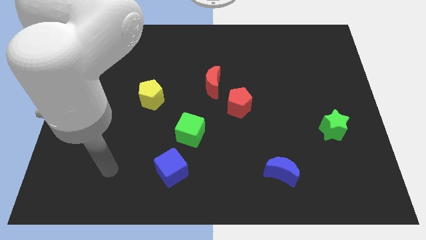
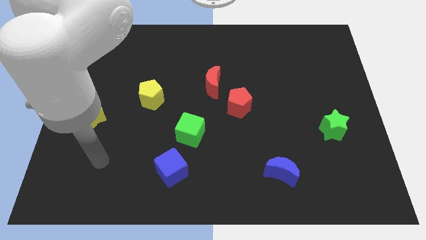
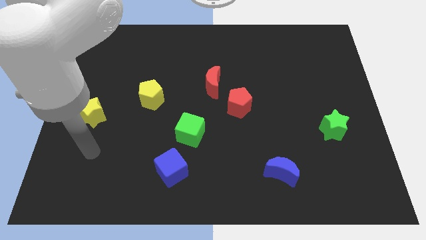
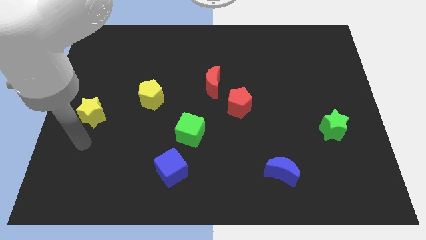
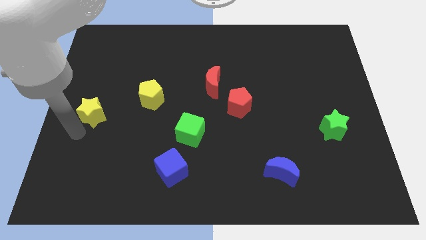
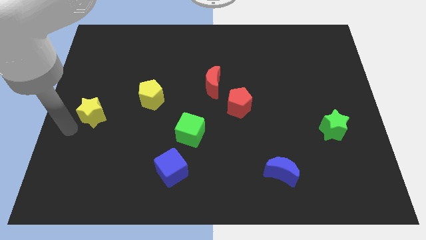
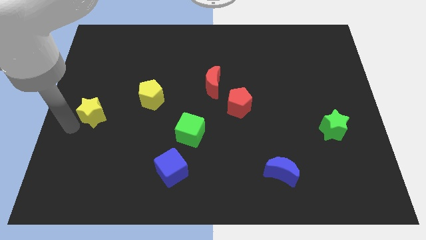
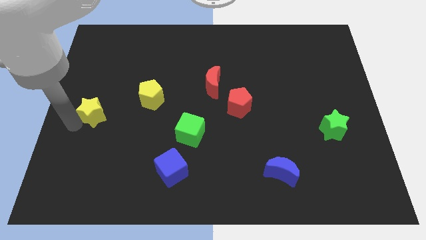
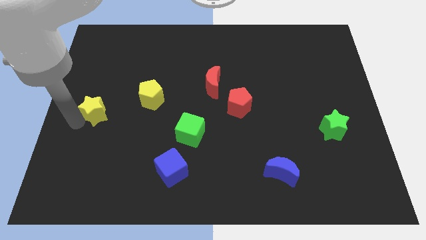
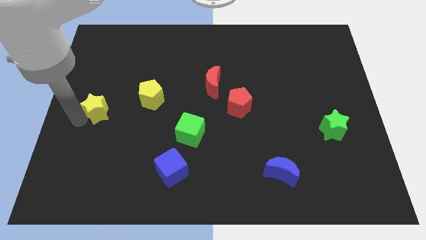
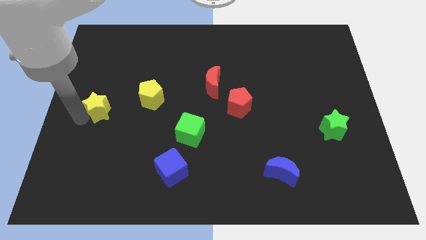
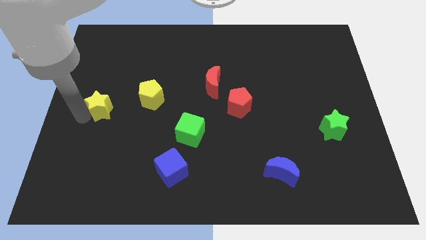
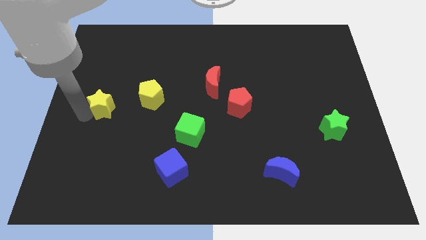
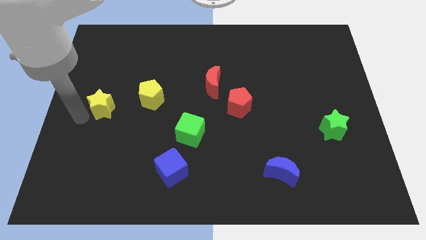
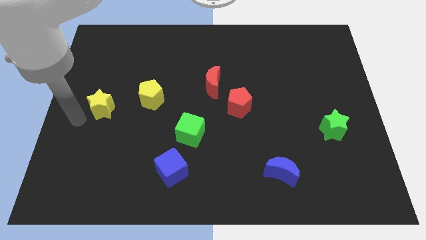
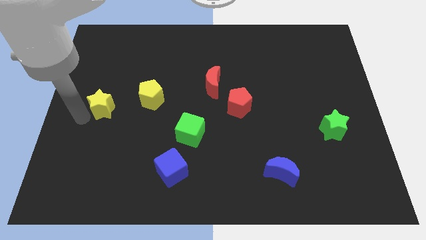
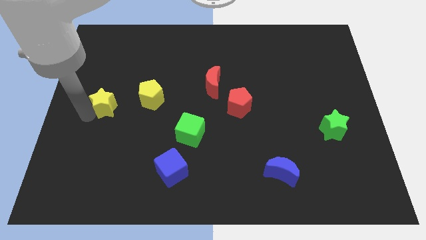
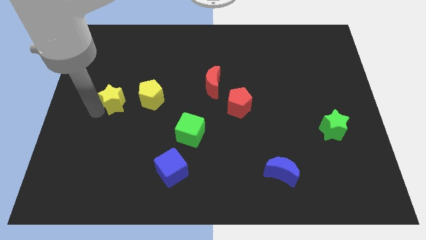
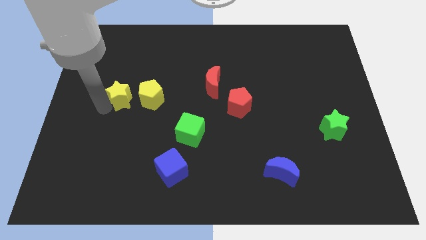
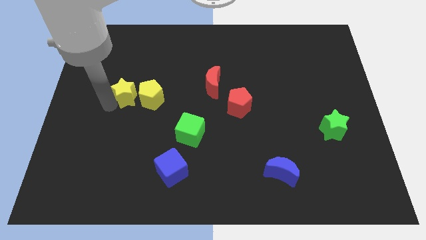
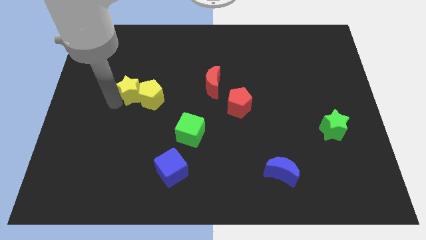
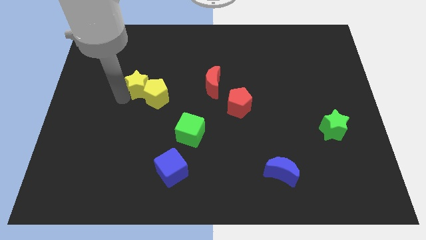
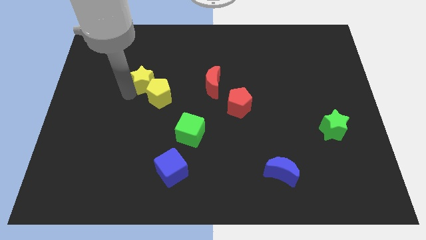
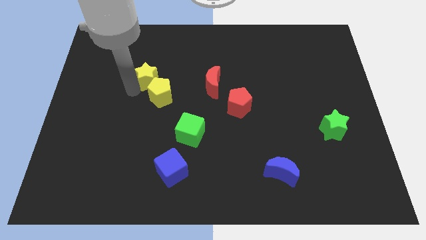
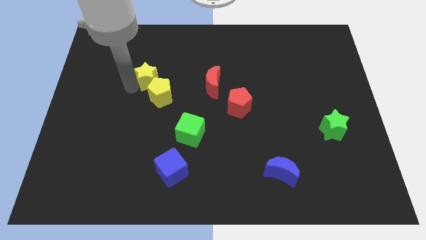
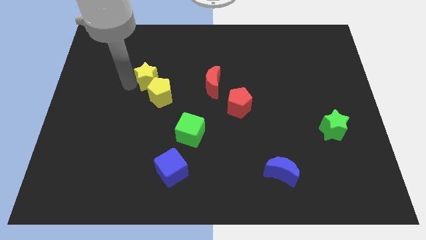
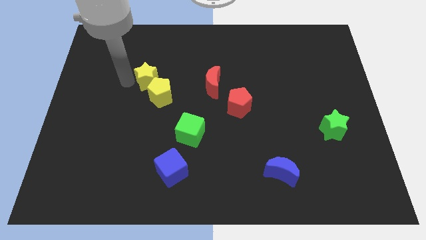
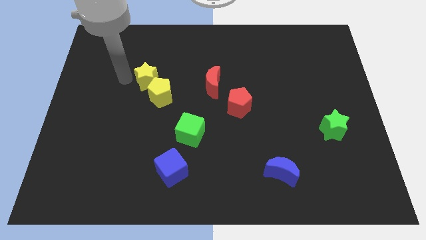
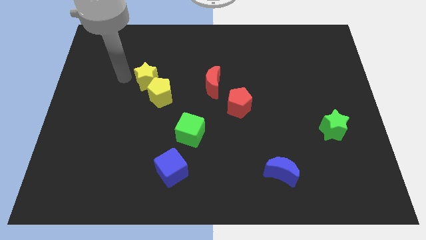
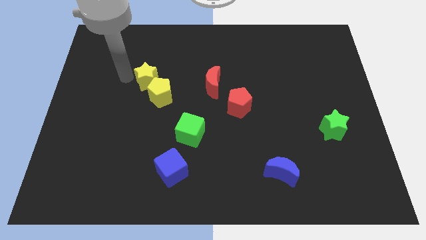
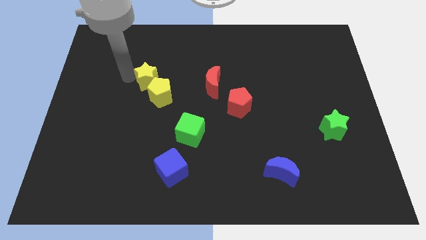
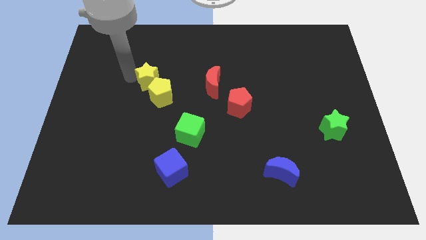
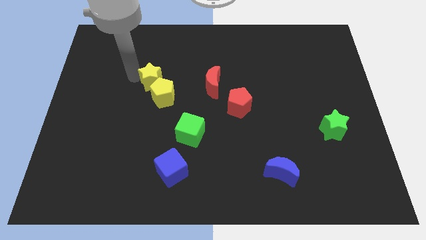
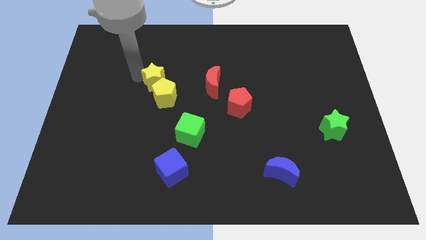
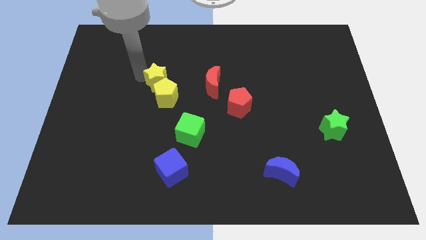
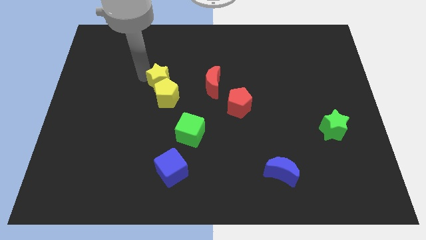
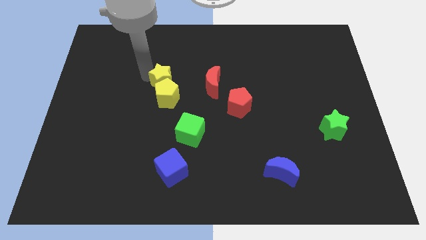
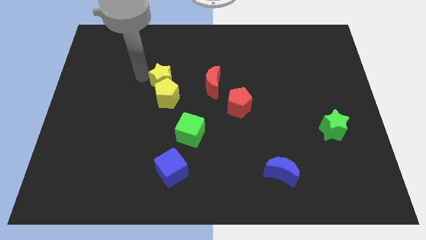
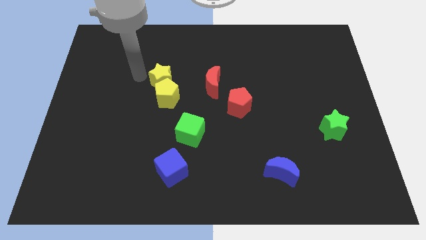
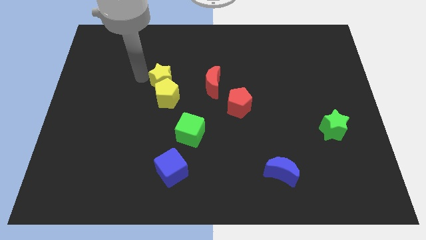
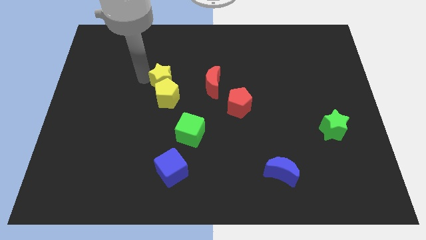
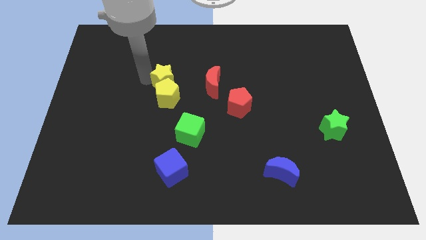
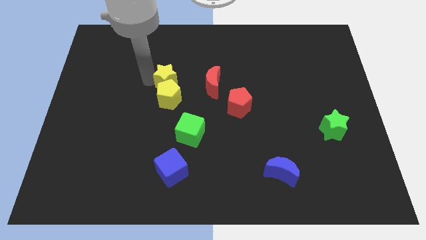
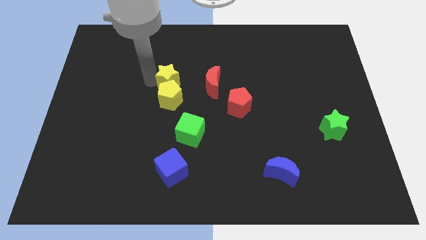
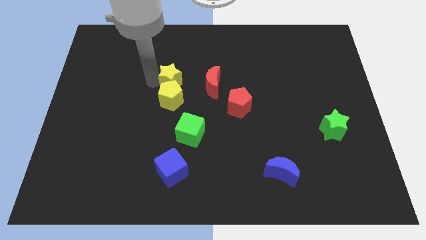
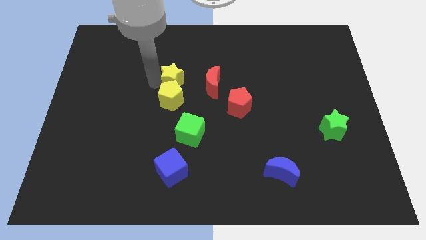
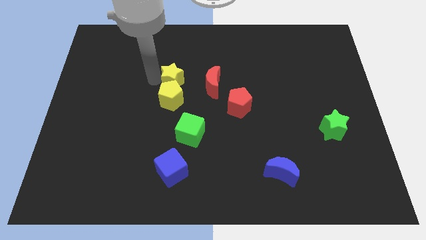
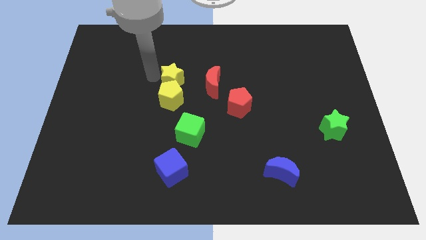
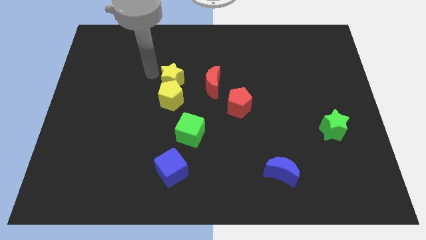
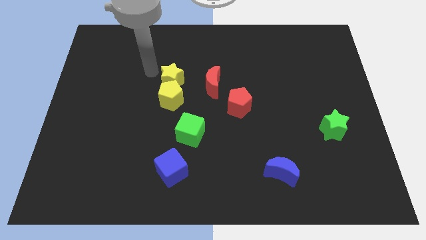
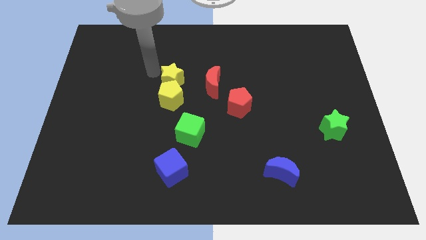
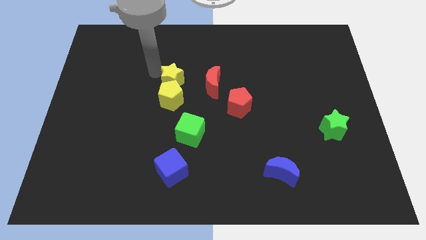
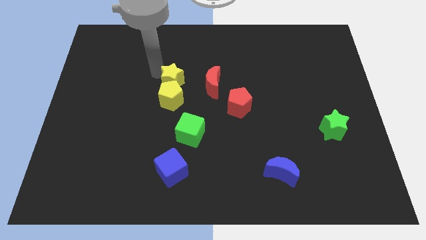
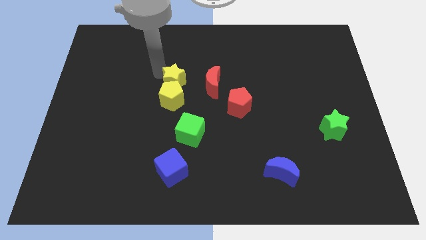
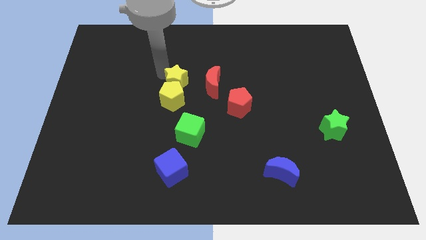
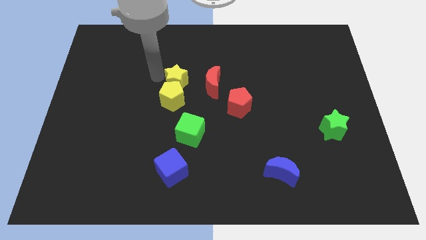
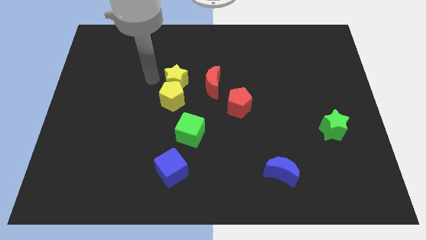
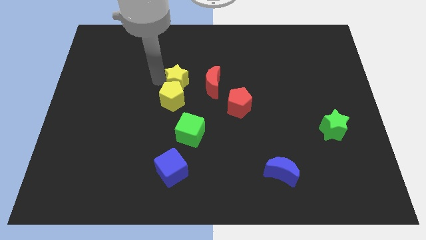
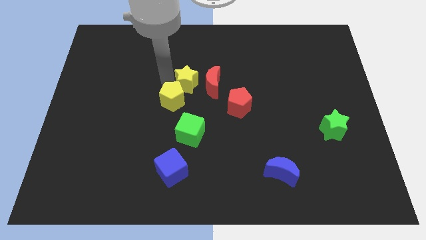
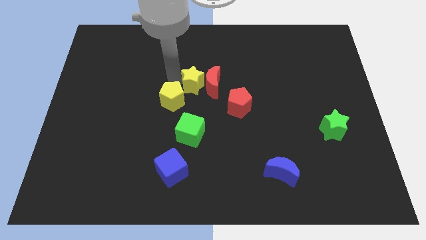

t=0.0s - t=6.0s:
put the yellow star towards the red moon

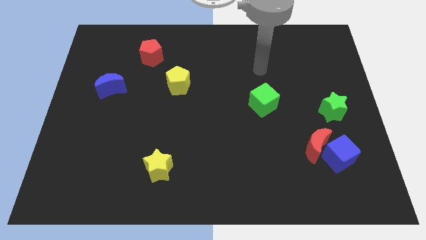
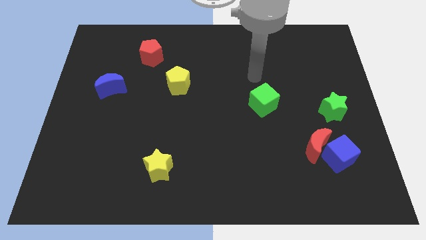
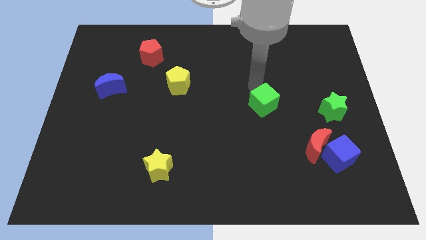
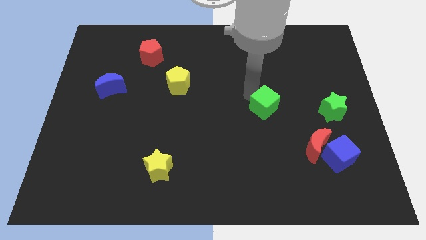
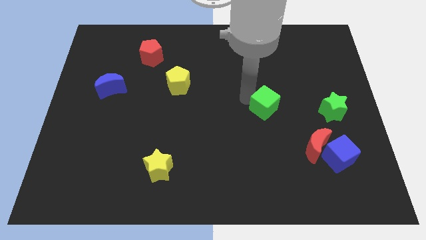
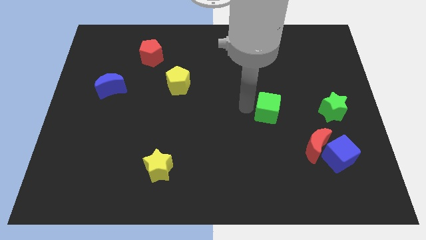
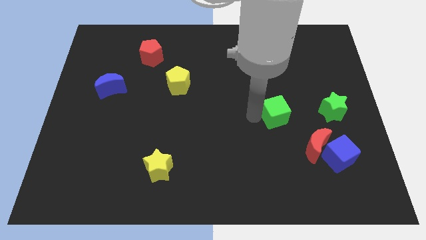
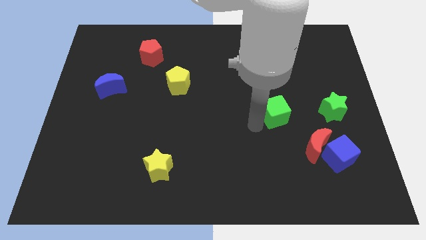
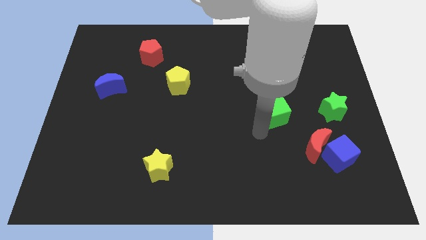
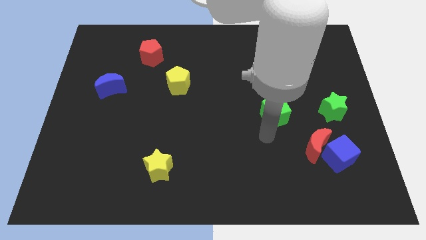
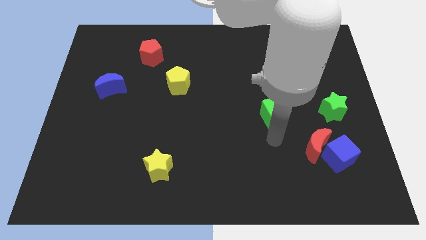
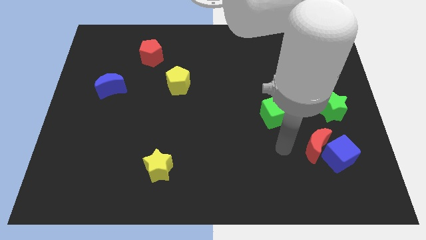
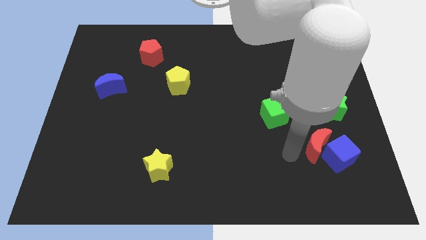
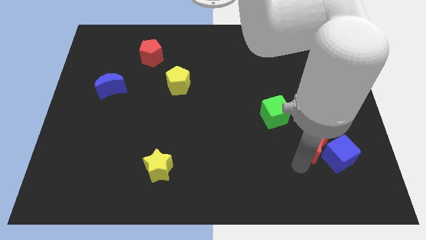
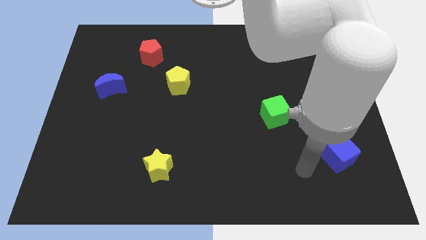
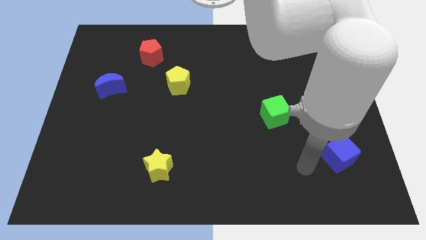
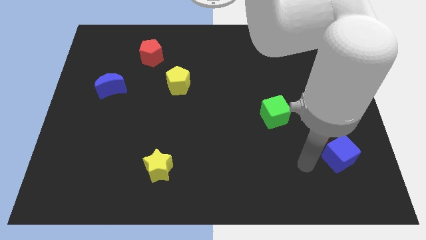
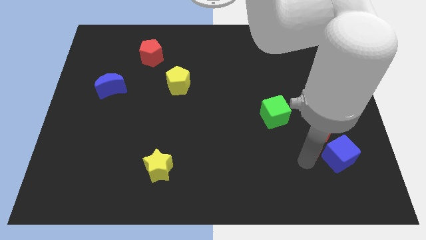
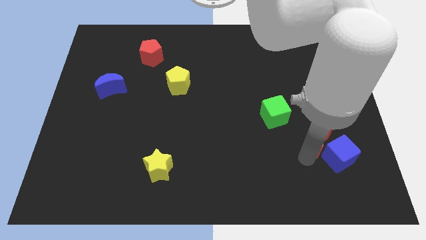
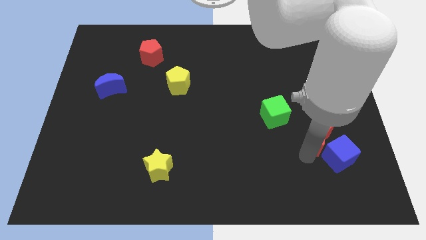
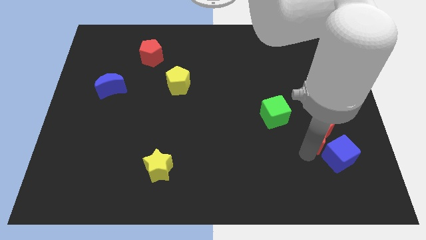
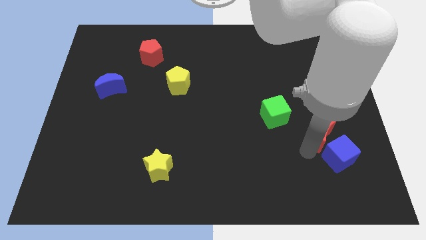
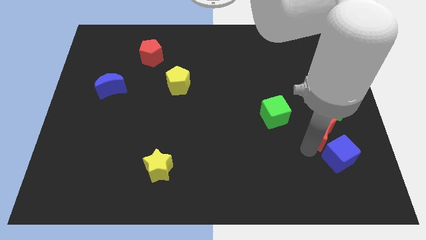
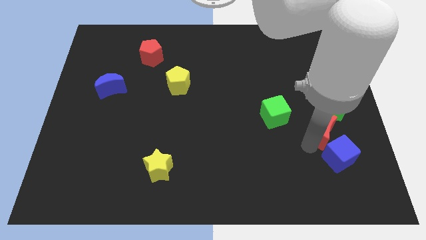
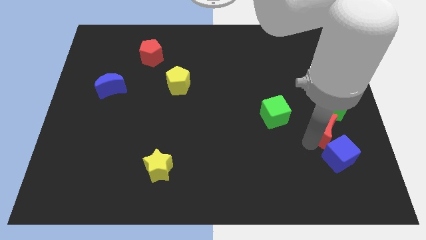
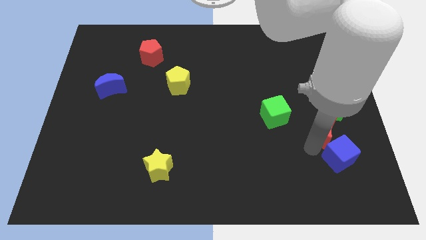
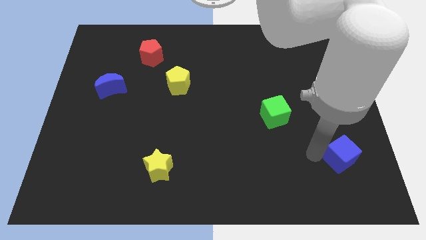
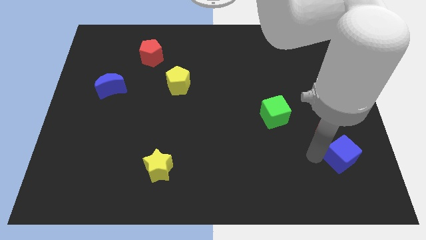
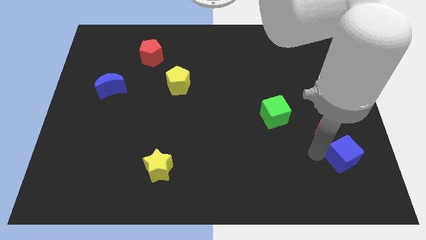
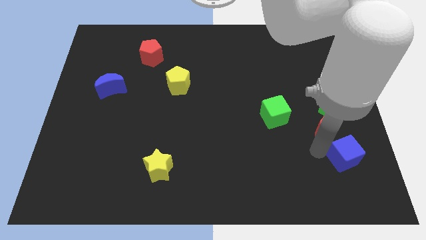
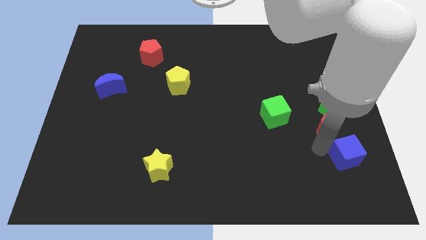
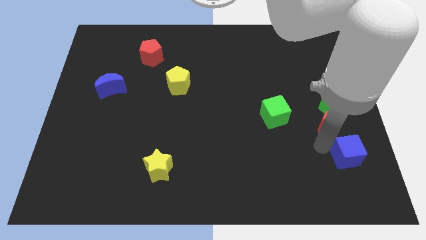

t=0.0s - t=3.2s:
push the red moon close to the green star
